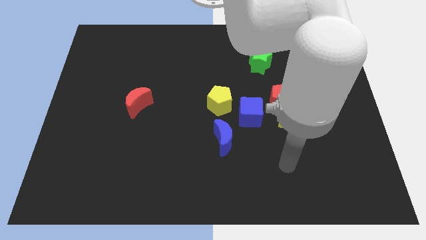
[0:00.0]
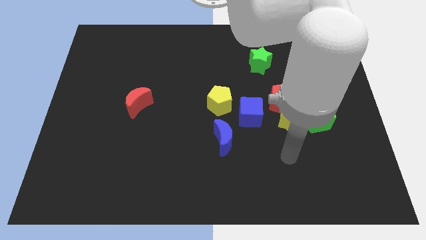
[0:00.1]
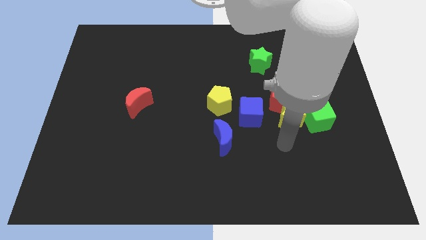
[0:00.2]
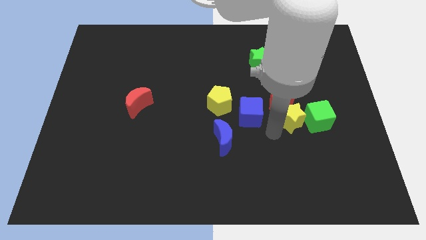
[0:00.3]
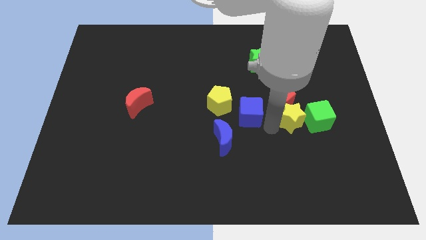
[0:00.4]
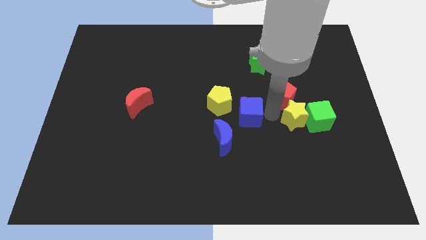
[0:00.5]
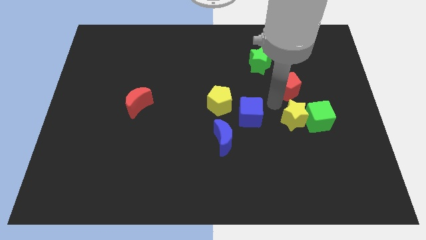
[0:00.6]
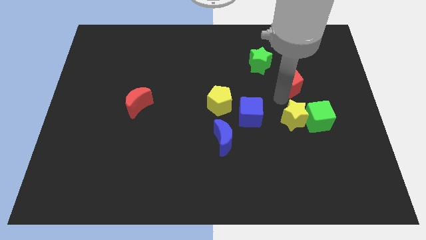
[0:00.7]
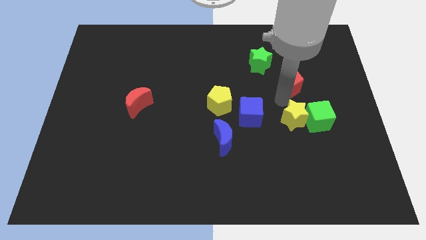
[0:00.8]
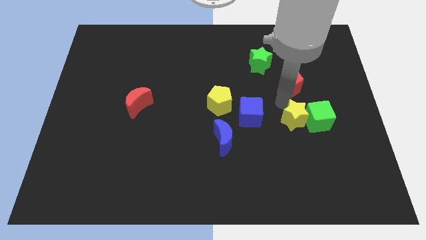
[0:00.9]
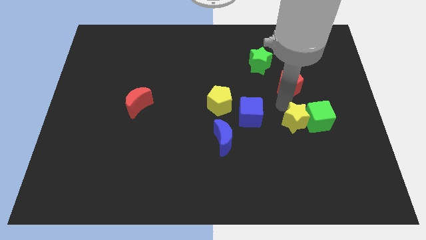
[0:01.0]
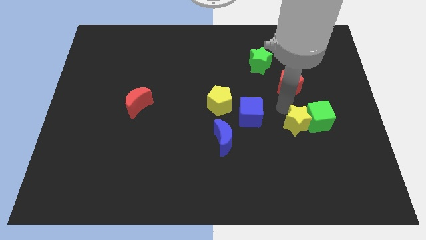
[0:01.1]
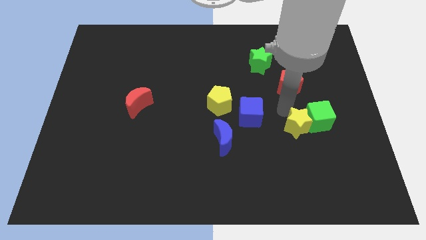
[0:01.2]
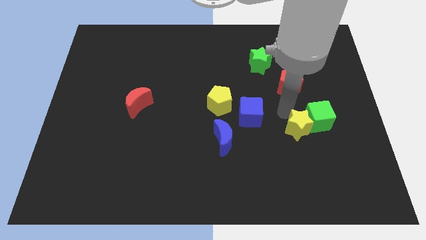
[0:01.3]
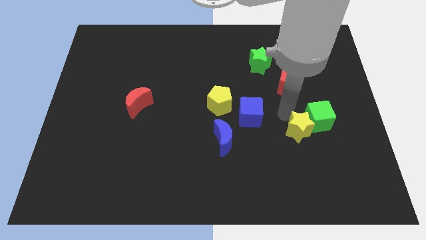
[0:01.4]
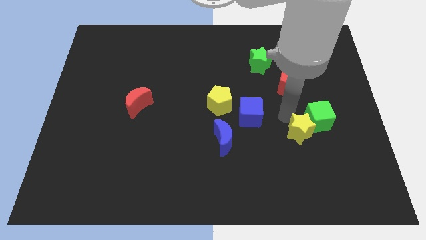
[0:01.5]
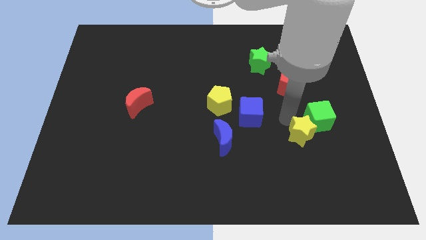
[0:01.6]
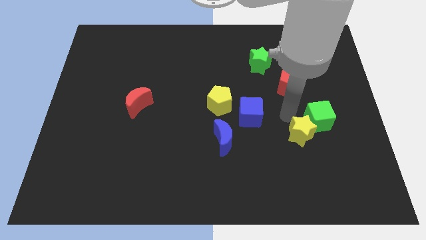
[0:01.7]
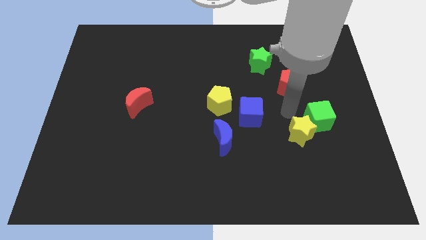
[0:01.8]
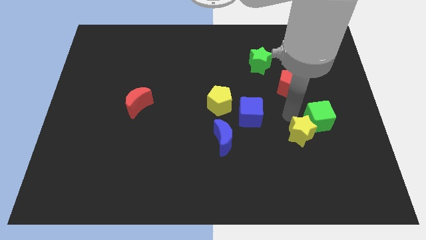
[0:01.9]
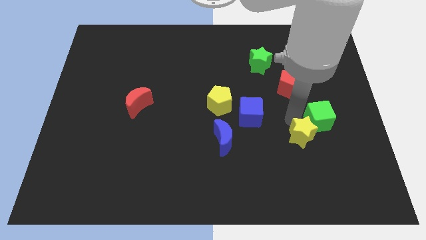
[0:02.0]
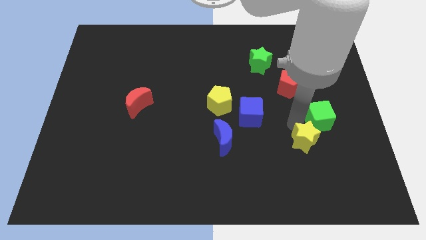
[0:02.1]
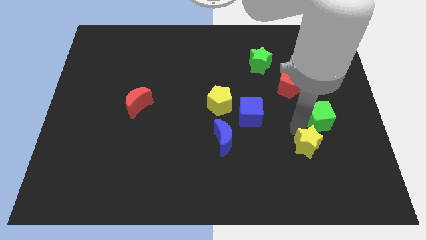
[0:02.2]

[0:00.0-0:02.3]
pull the yellow star apart from the group of blocks

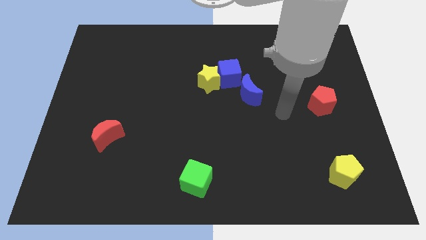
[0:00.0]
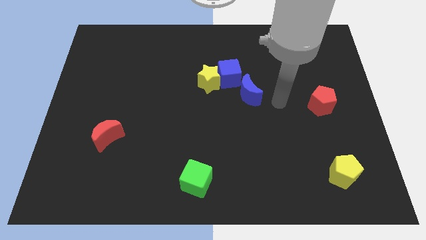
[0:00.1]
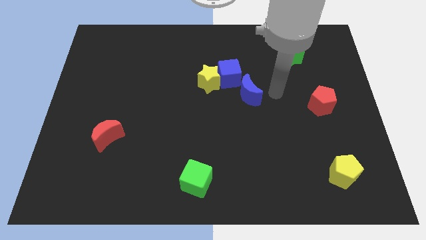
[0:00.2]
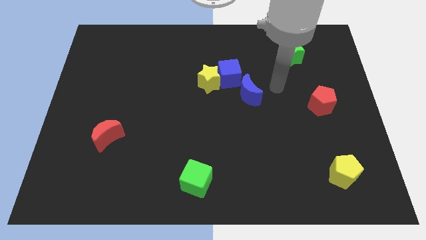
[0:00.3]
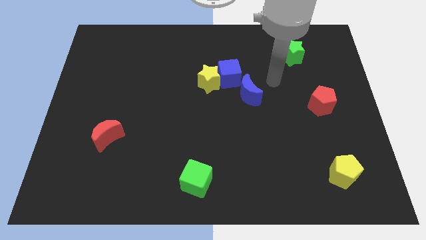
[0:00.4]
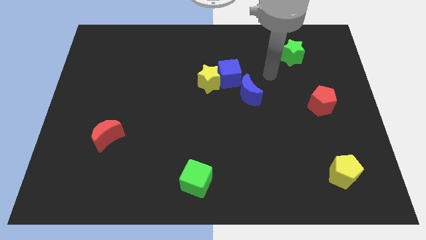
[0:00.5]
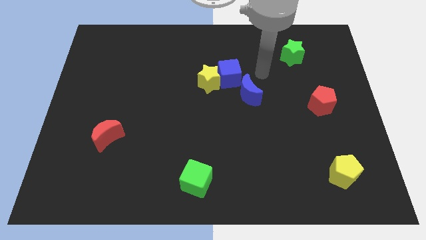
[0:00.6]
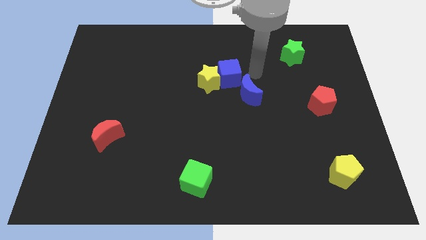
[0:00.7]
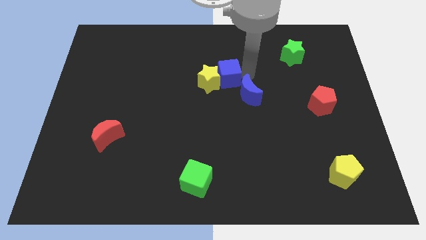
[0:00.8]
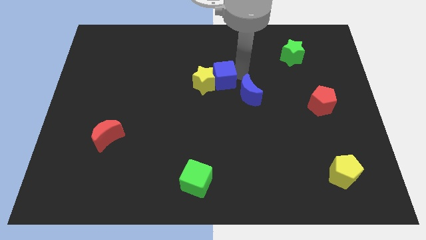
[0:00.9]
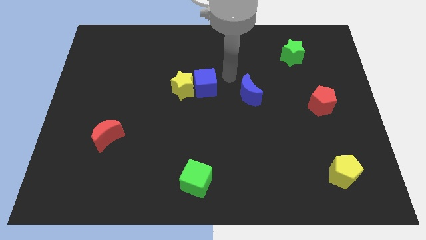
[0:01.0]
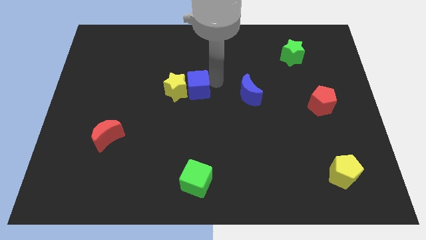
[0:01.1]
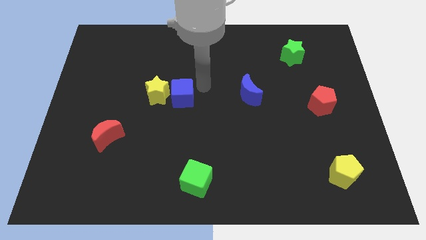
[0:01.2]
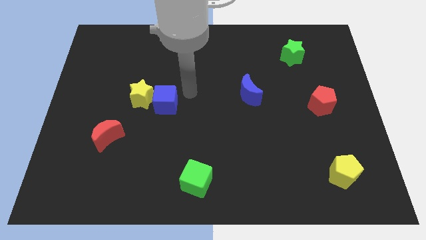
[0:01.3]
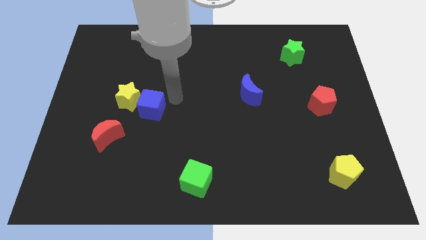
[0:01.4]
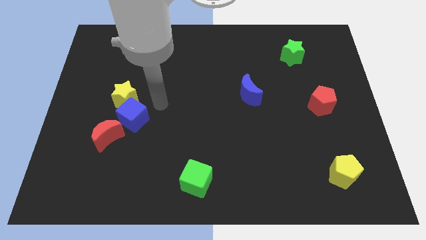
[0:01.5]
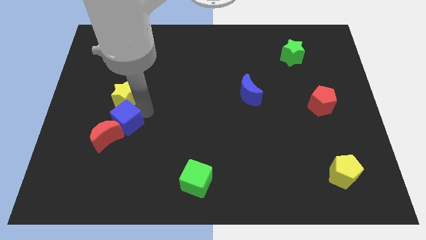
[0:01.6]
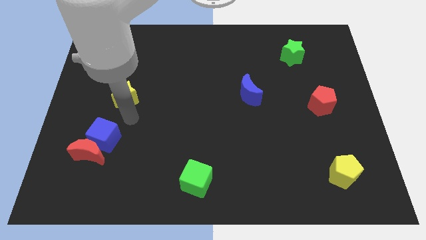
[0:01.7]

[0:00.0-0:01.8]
pull the yellow star apart from the blue cube

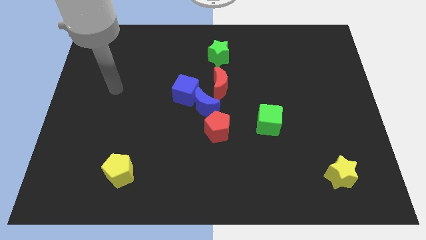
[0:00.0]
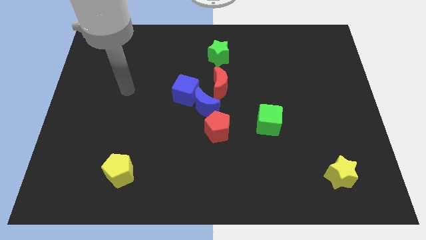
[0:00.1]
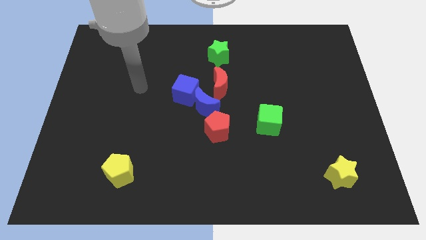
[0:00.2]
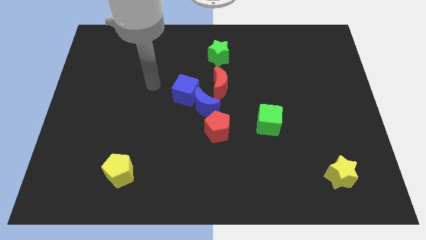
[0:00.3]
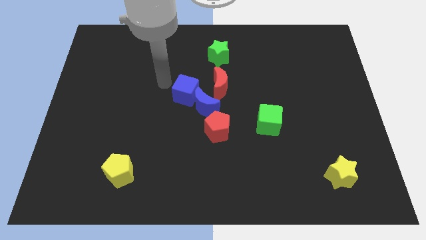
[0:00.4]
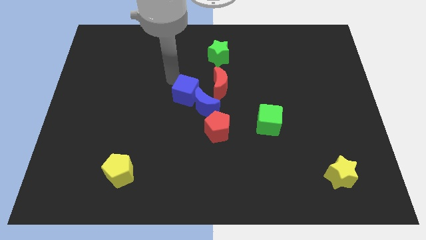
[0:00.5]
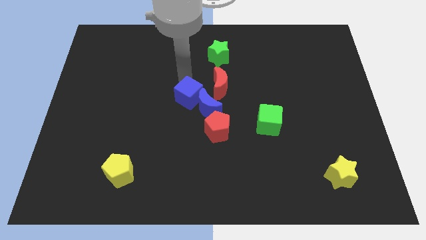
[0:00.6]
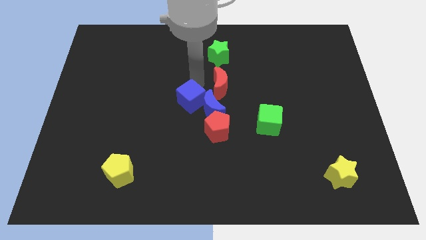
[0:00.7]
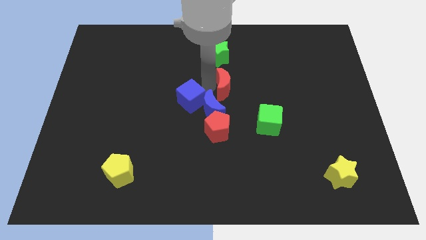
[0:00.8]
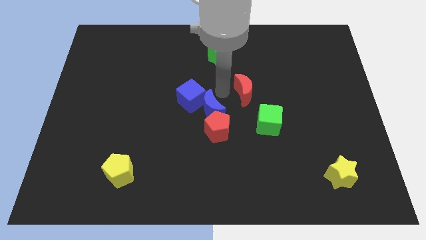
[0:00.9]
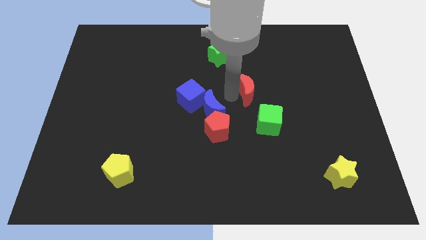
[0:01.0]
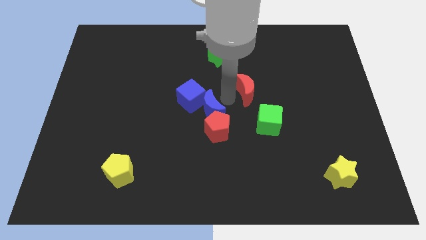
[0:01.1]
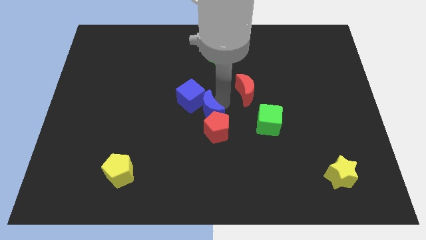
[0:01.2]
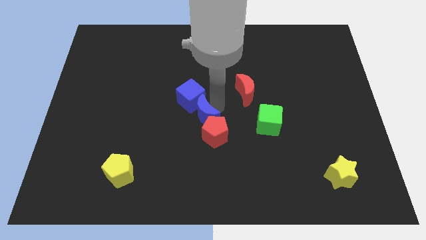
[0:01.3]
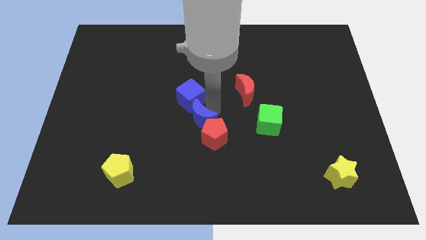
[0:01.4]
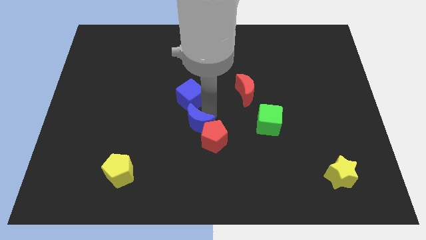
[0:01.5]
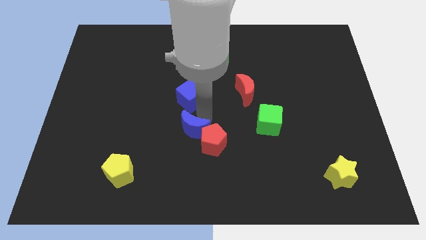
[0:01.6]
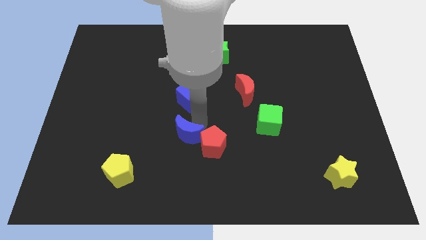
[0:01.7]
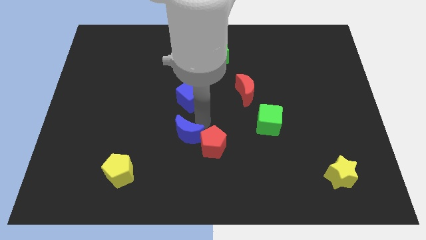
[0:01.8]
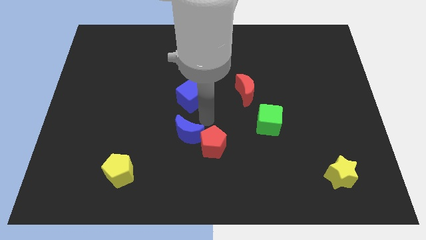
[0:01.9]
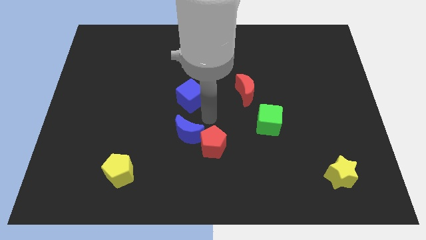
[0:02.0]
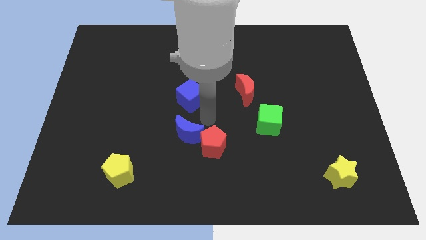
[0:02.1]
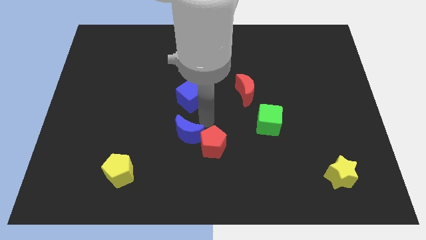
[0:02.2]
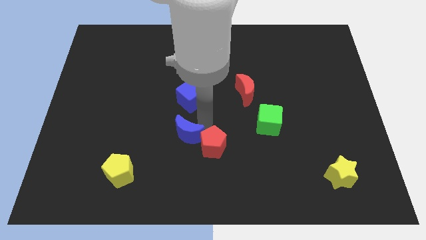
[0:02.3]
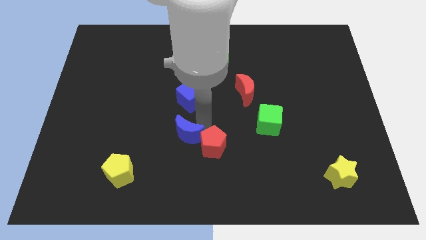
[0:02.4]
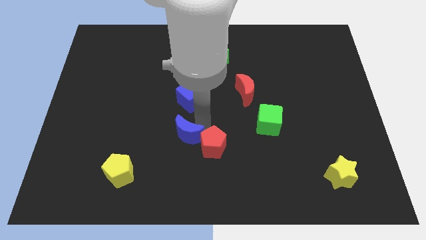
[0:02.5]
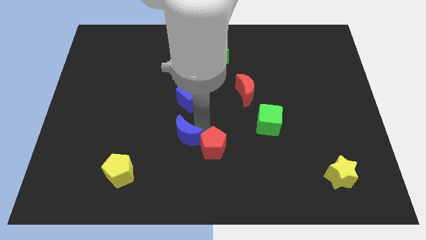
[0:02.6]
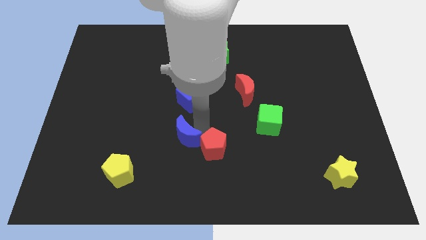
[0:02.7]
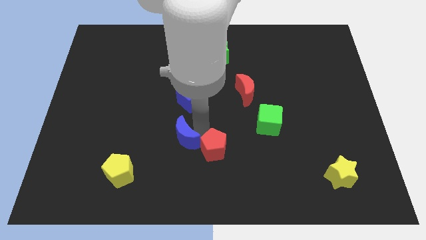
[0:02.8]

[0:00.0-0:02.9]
move the blue moon away from the clump

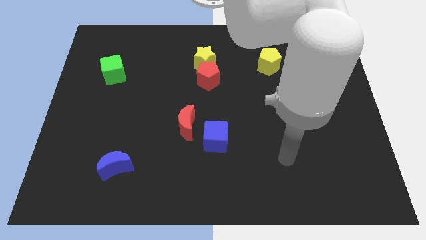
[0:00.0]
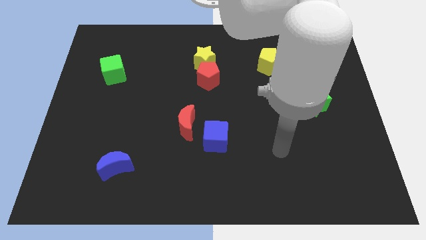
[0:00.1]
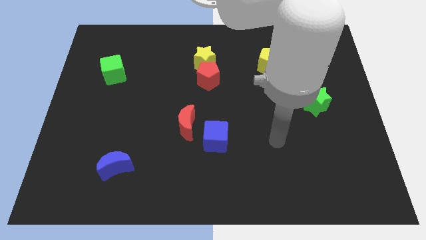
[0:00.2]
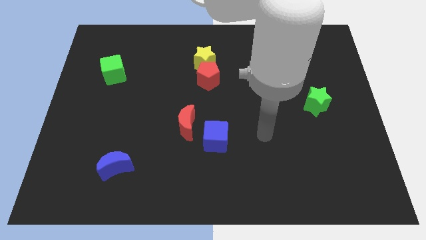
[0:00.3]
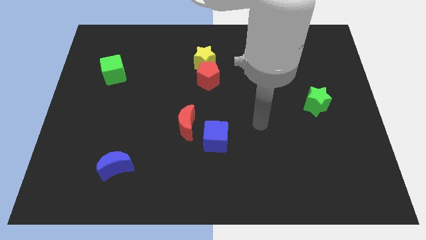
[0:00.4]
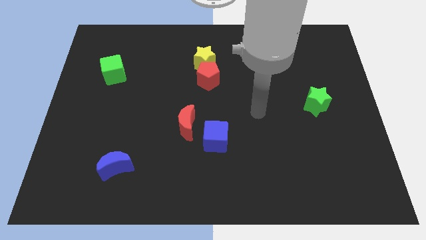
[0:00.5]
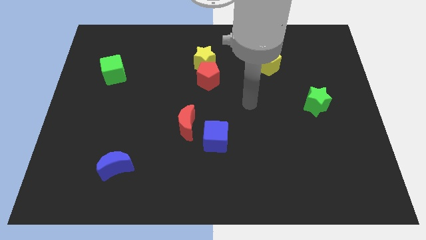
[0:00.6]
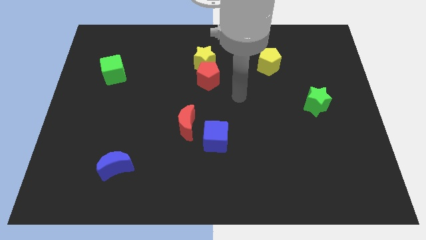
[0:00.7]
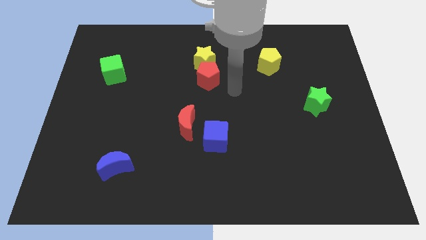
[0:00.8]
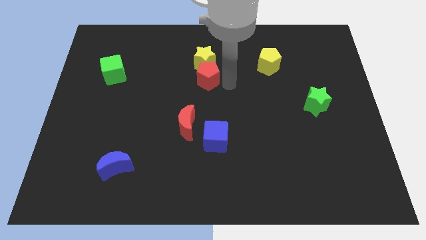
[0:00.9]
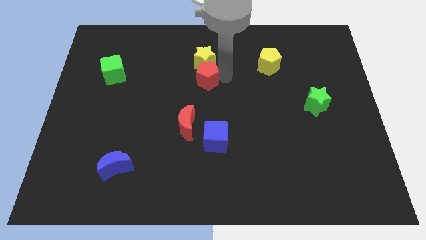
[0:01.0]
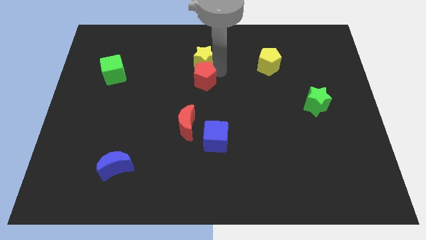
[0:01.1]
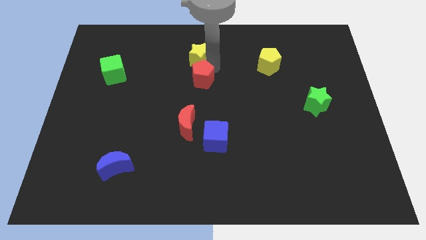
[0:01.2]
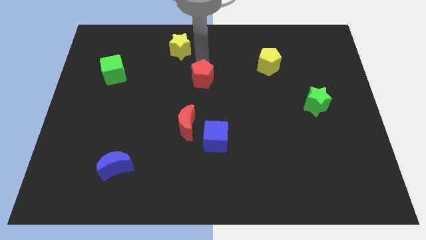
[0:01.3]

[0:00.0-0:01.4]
pull the red pentagon apart from the yellow star

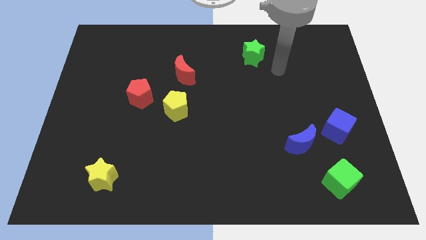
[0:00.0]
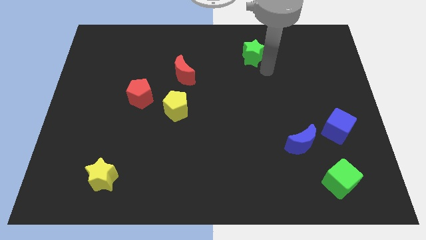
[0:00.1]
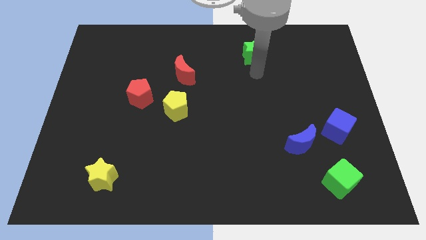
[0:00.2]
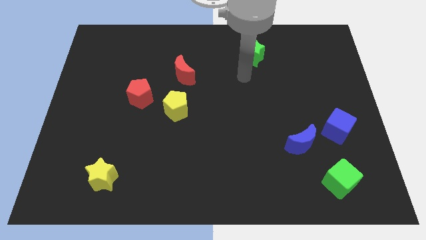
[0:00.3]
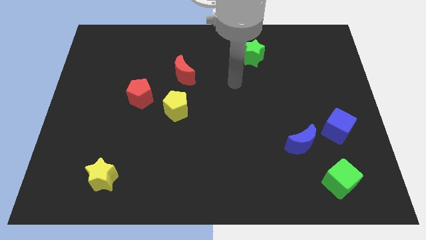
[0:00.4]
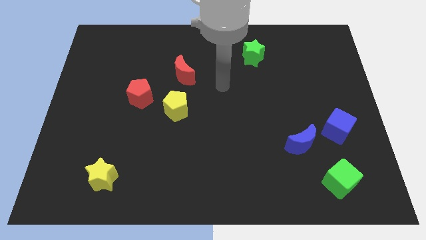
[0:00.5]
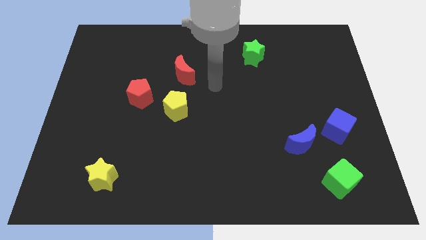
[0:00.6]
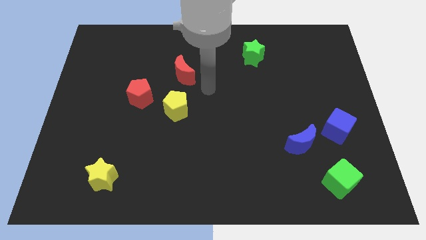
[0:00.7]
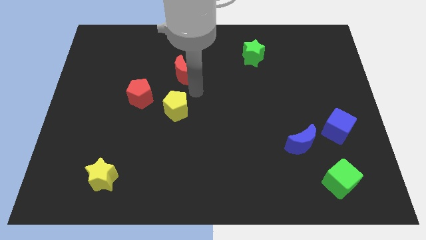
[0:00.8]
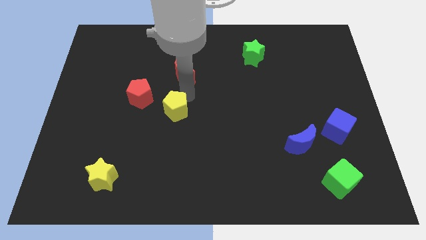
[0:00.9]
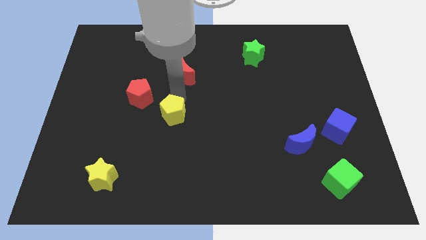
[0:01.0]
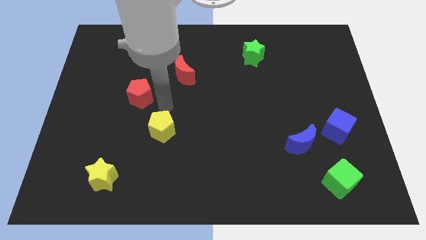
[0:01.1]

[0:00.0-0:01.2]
pull the red pentagon apart from the yellow pentagon
